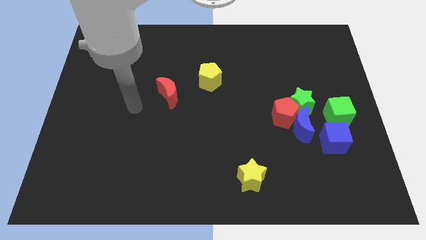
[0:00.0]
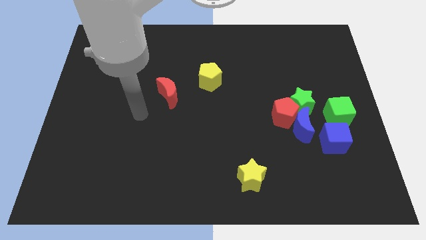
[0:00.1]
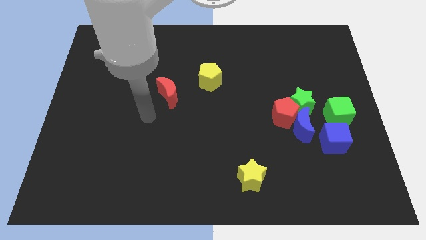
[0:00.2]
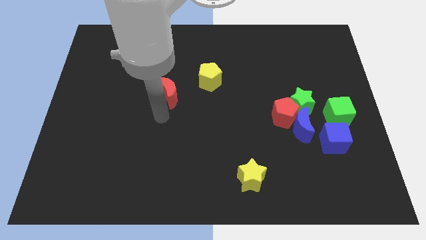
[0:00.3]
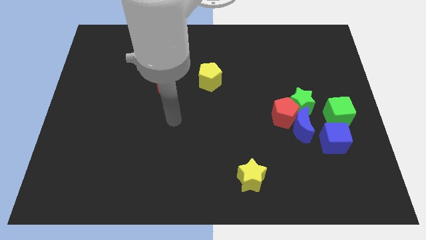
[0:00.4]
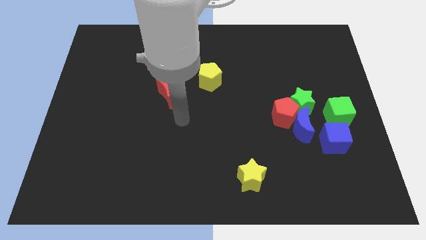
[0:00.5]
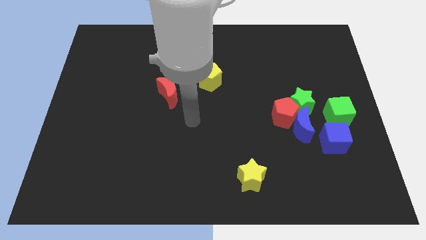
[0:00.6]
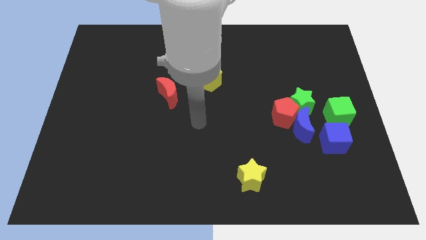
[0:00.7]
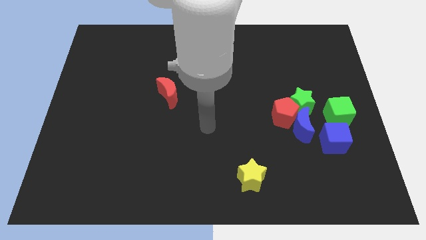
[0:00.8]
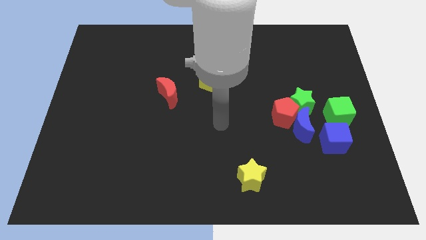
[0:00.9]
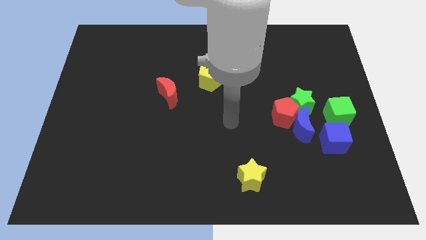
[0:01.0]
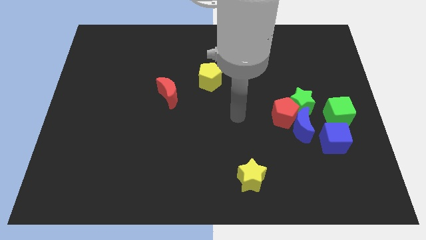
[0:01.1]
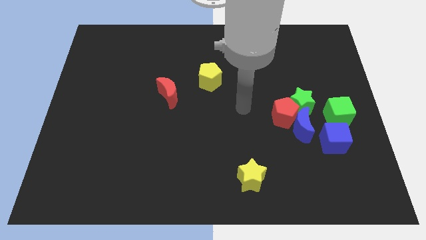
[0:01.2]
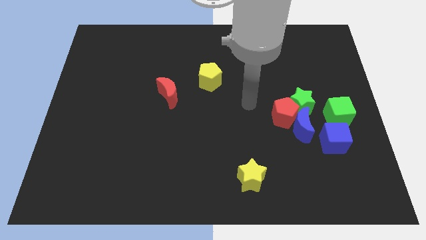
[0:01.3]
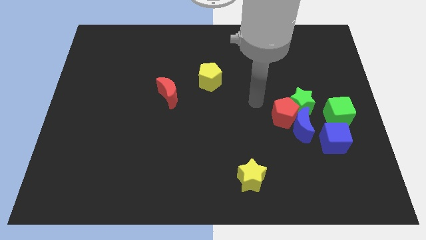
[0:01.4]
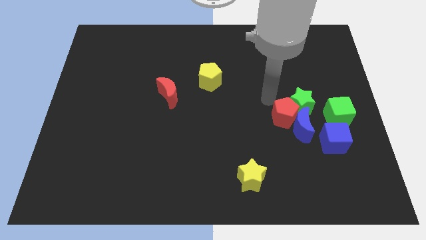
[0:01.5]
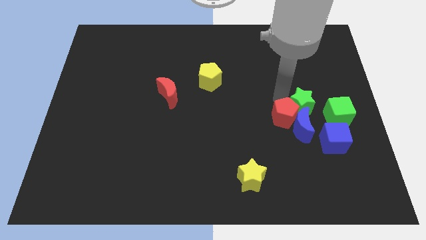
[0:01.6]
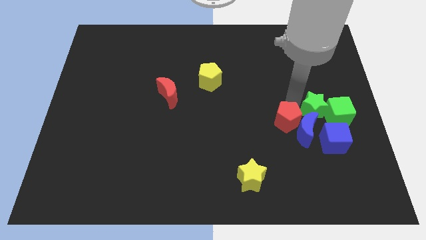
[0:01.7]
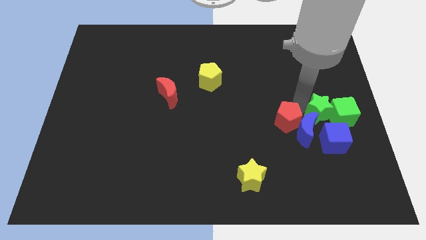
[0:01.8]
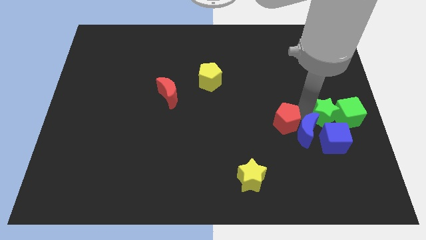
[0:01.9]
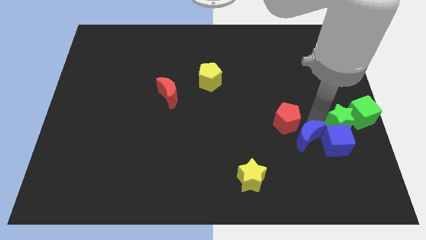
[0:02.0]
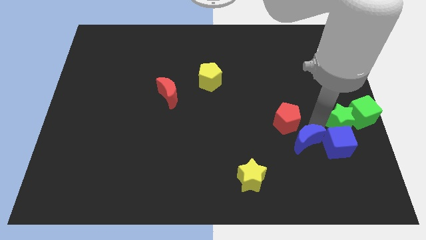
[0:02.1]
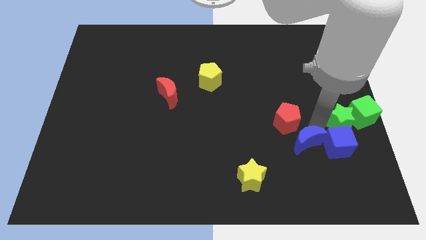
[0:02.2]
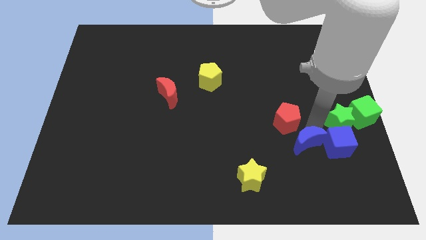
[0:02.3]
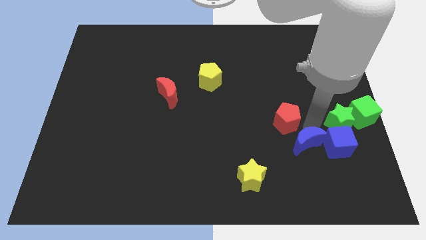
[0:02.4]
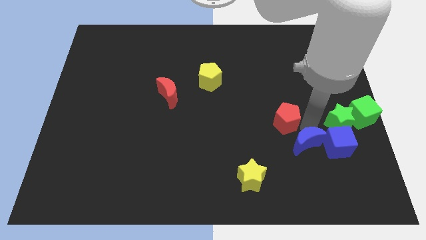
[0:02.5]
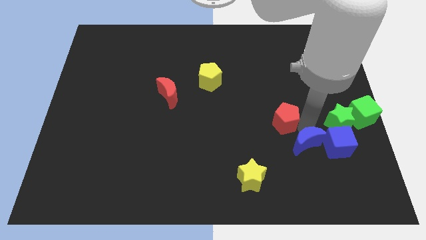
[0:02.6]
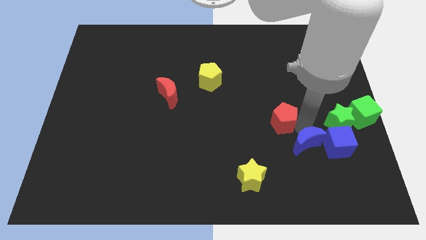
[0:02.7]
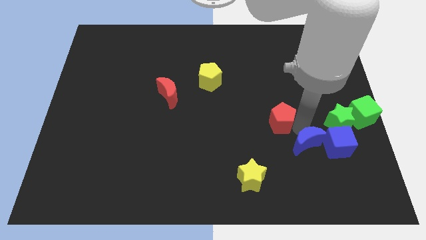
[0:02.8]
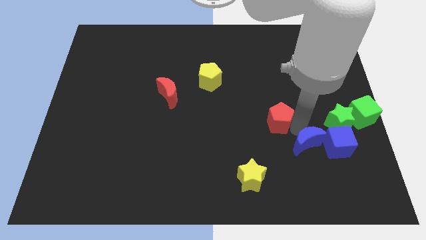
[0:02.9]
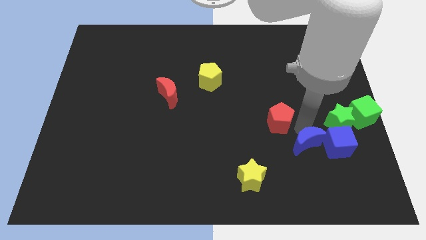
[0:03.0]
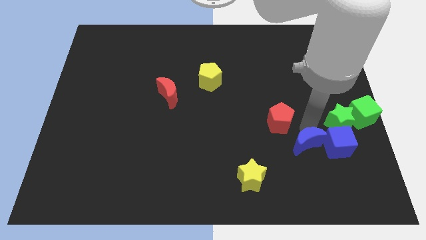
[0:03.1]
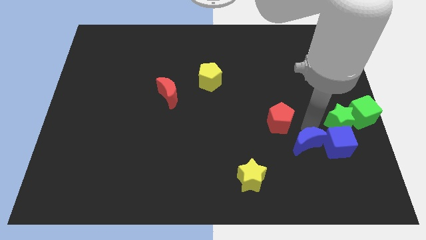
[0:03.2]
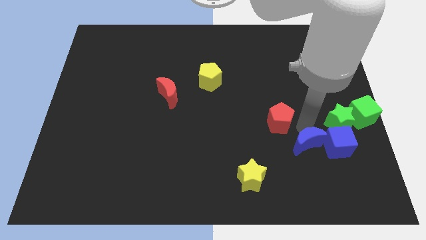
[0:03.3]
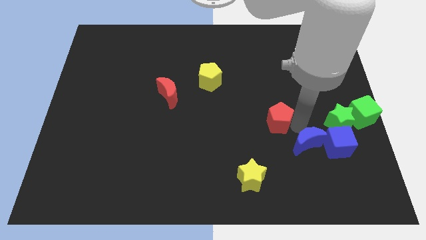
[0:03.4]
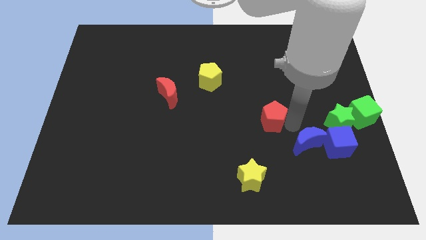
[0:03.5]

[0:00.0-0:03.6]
pull the red pentagon apart from the blue moon and green star

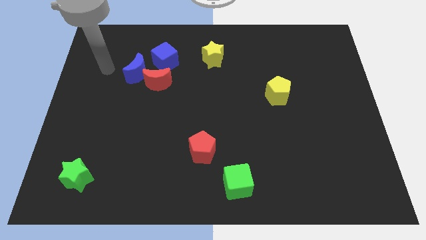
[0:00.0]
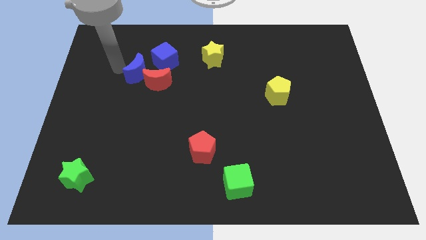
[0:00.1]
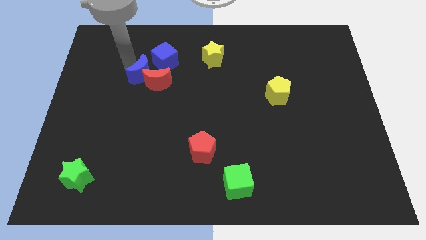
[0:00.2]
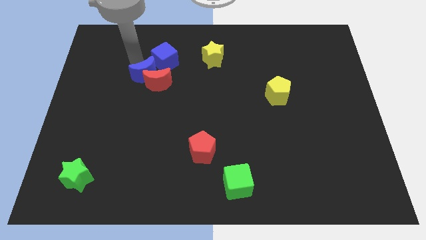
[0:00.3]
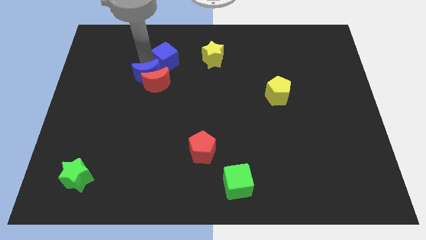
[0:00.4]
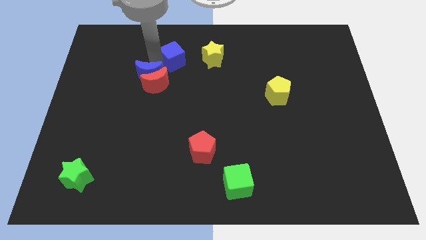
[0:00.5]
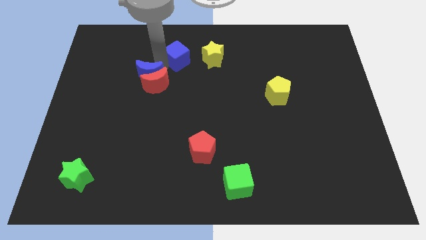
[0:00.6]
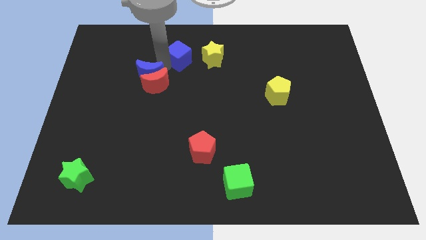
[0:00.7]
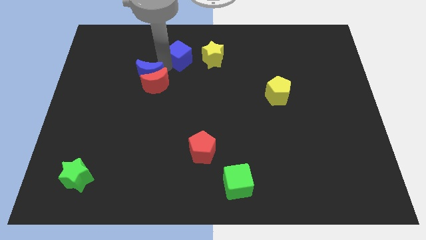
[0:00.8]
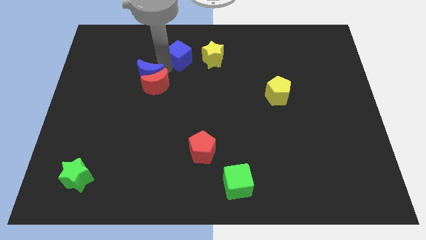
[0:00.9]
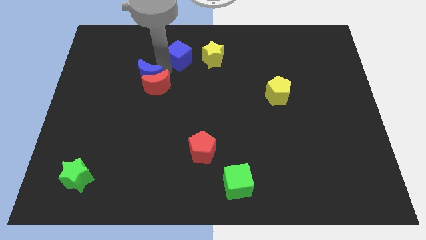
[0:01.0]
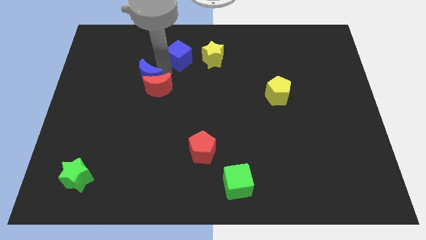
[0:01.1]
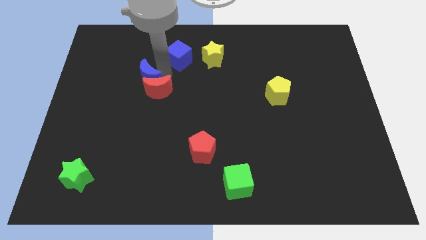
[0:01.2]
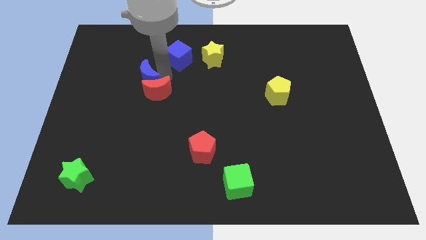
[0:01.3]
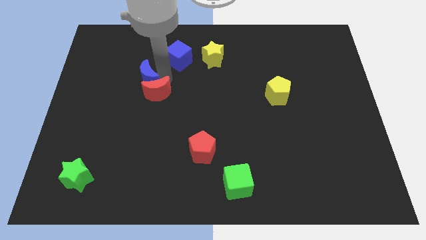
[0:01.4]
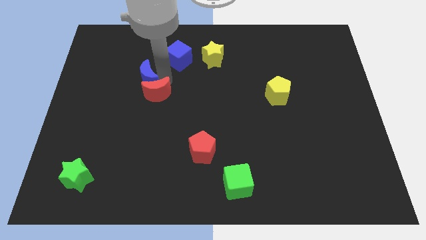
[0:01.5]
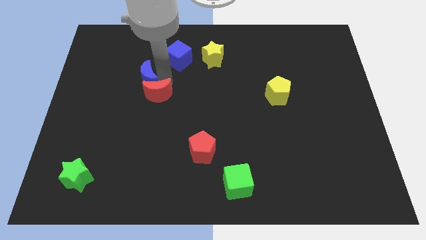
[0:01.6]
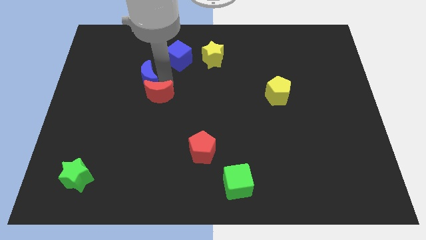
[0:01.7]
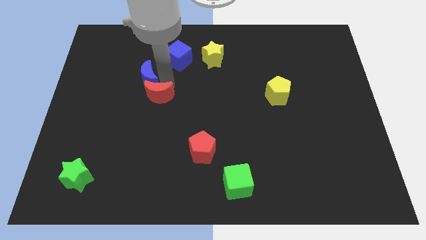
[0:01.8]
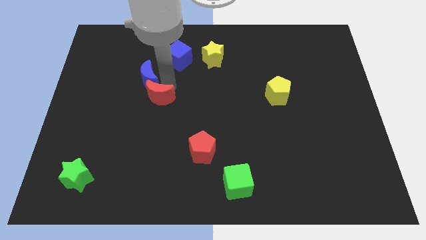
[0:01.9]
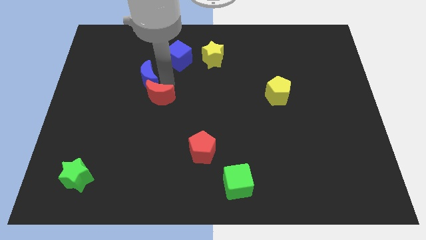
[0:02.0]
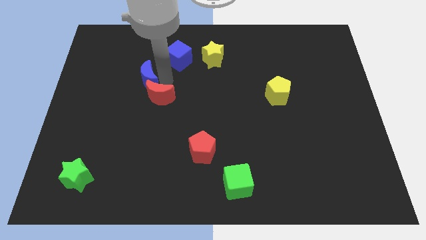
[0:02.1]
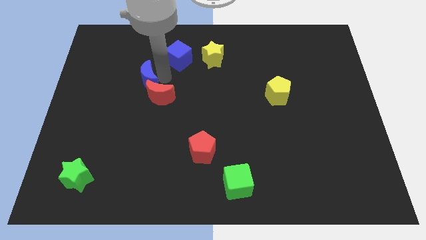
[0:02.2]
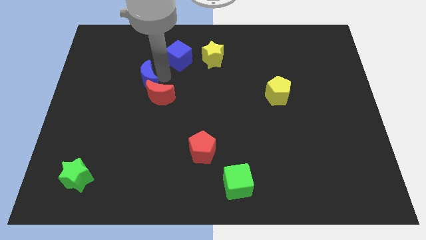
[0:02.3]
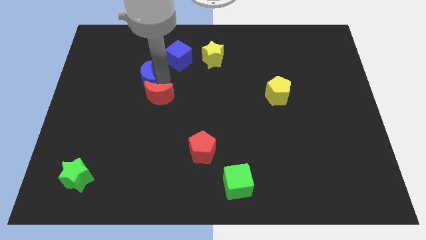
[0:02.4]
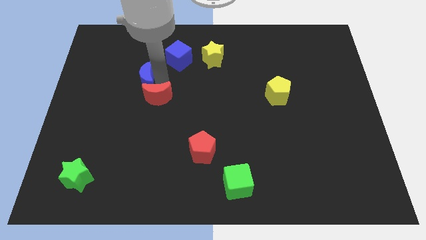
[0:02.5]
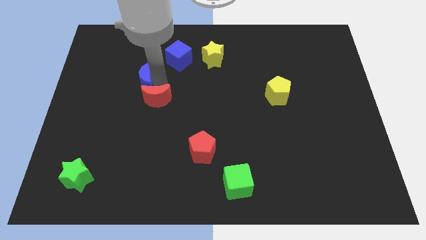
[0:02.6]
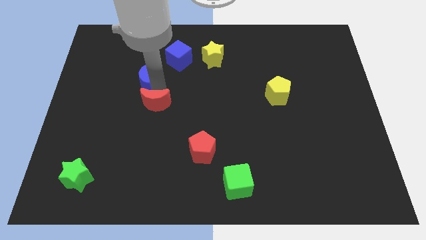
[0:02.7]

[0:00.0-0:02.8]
pull the red moon apart from the blue moon and blue cube

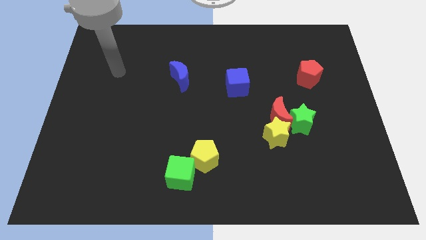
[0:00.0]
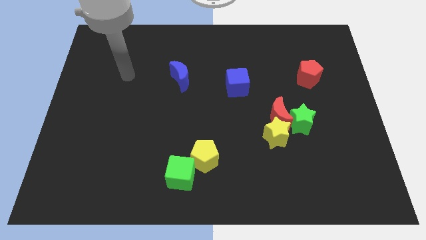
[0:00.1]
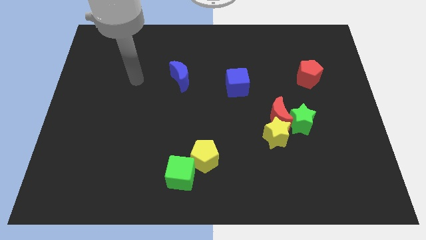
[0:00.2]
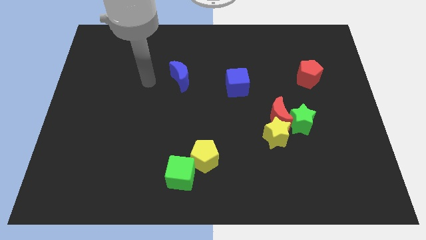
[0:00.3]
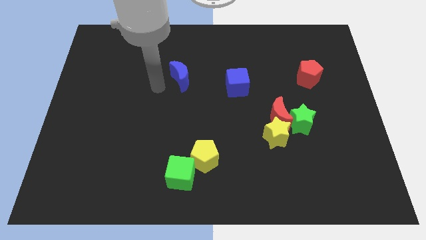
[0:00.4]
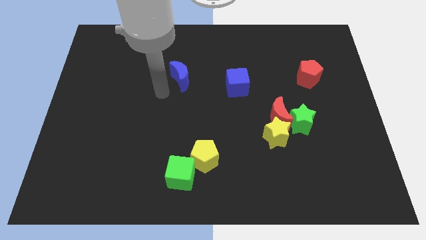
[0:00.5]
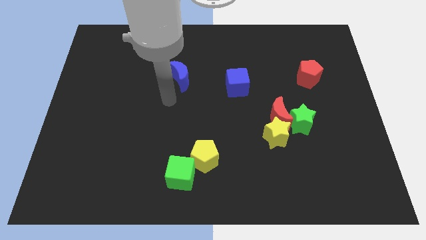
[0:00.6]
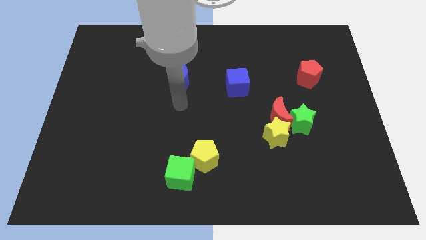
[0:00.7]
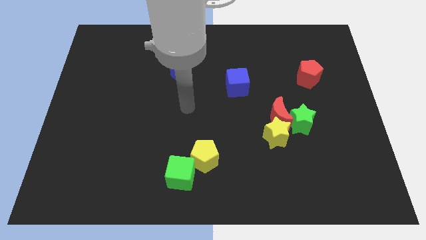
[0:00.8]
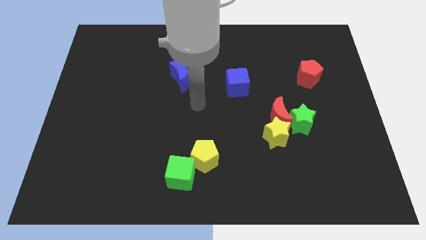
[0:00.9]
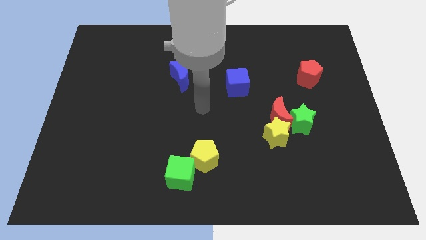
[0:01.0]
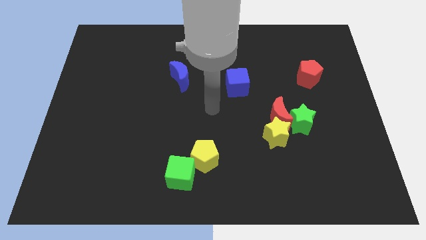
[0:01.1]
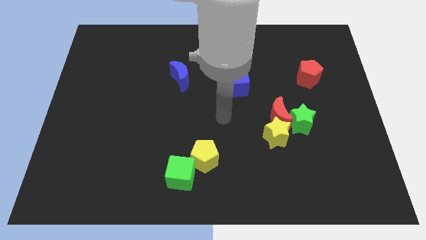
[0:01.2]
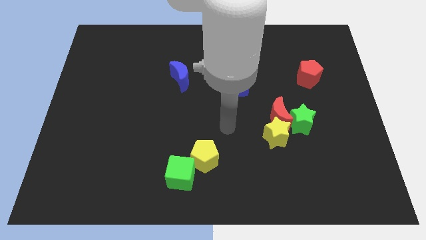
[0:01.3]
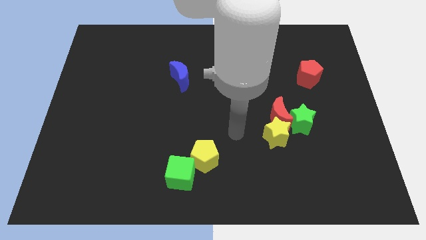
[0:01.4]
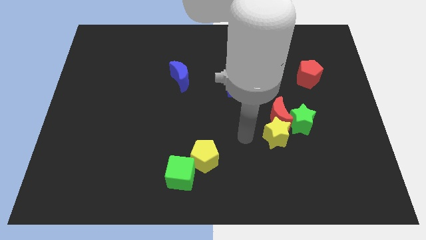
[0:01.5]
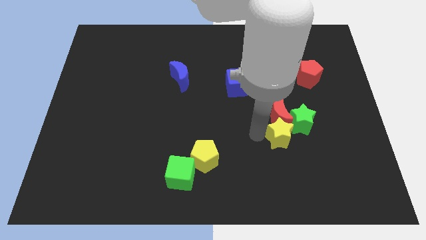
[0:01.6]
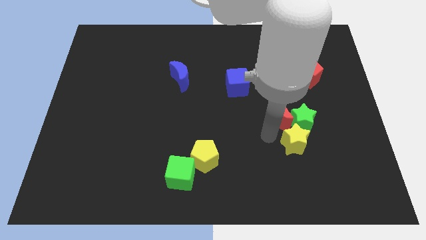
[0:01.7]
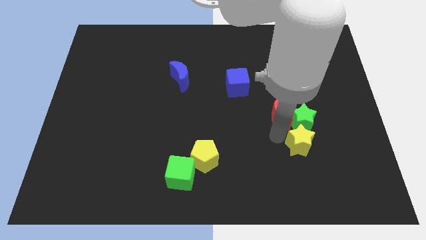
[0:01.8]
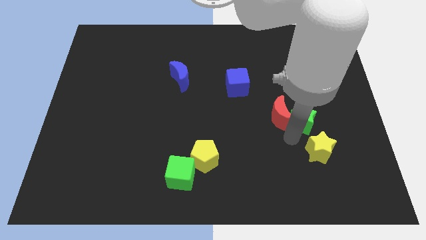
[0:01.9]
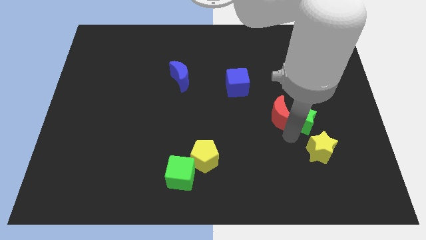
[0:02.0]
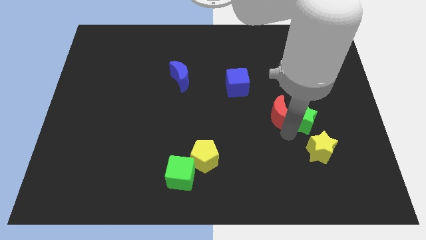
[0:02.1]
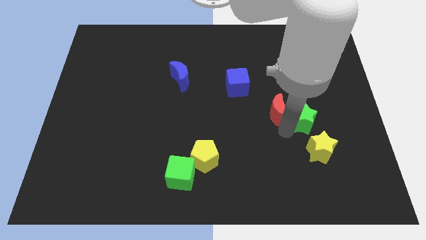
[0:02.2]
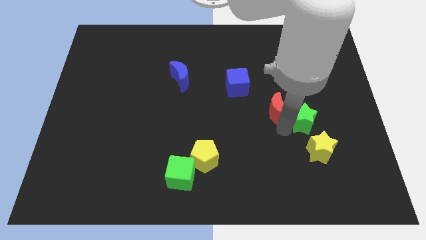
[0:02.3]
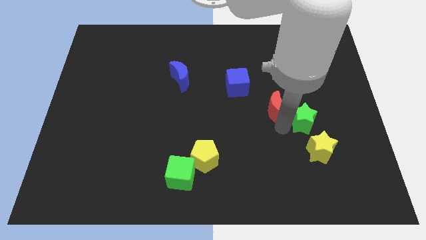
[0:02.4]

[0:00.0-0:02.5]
move the red moon away from the yellow star and green star

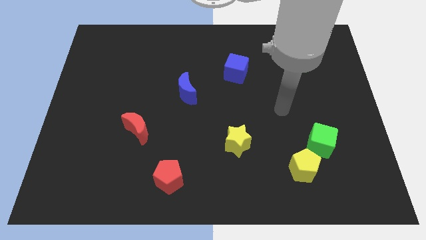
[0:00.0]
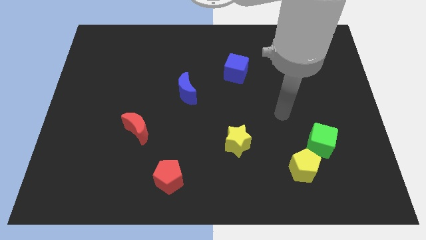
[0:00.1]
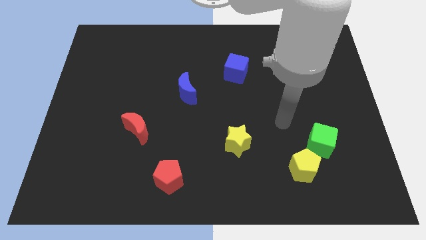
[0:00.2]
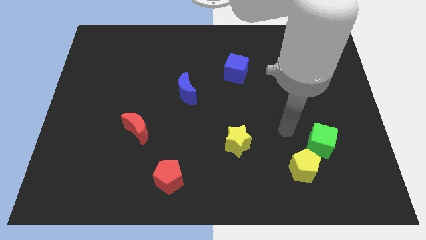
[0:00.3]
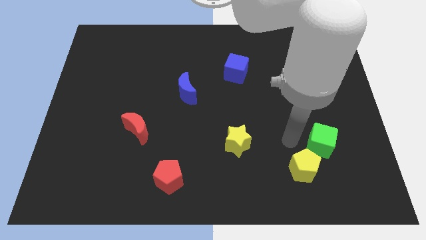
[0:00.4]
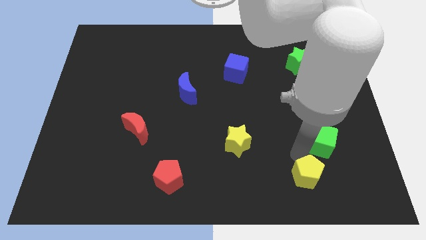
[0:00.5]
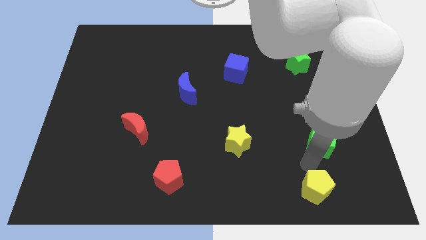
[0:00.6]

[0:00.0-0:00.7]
move the green cube away from the yellow pentagon
